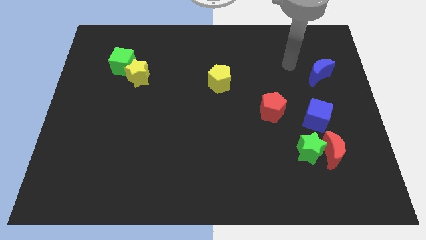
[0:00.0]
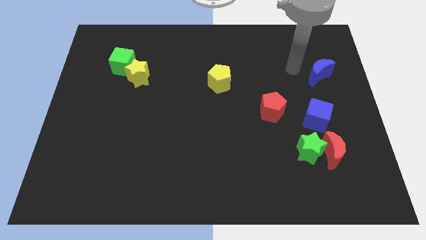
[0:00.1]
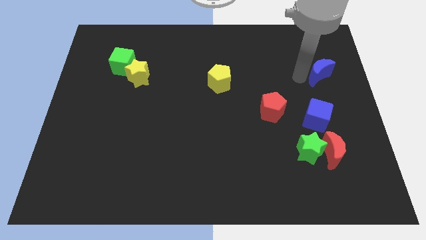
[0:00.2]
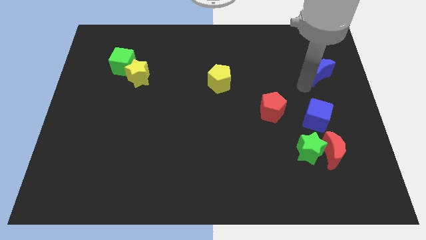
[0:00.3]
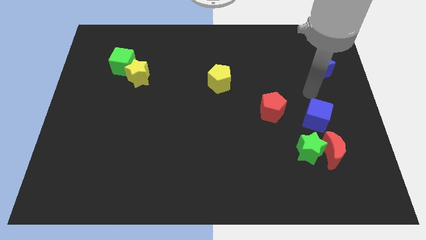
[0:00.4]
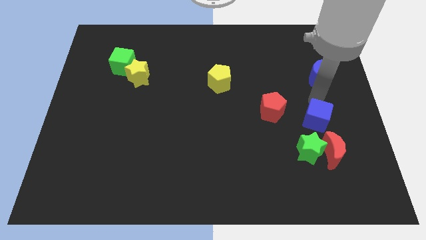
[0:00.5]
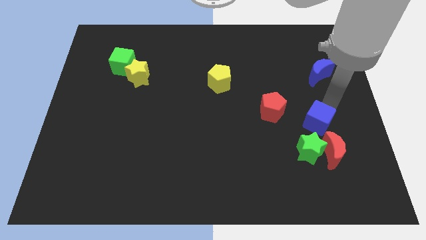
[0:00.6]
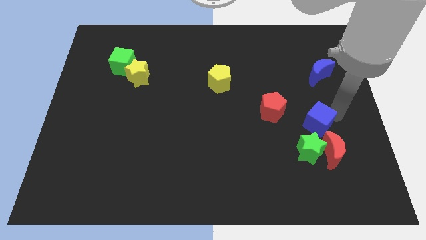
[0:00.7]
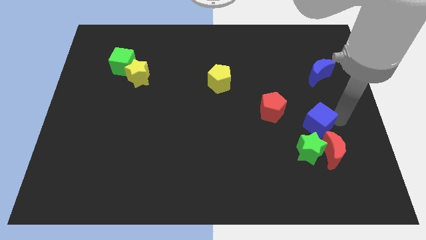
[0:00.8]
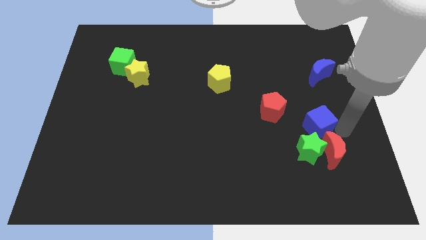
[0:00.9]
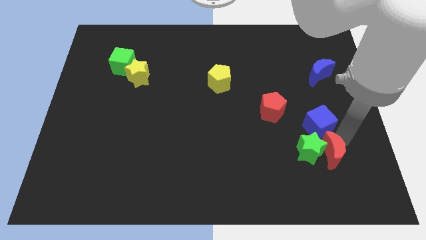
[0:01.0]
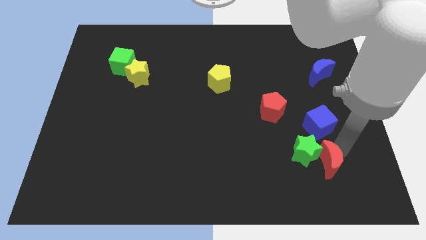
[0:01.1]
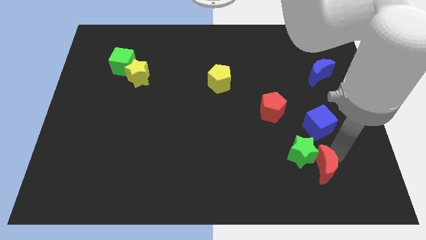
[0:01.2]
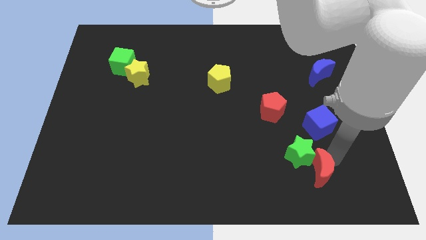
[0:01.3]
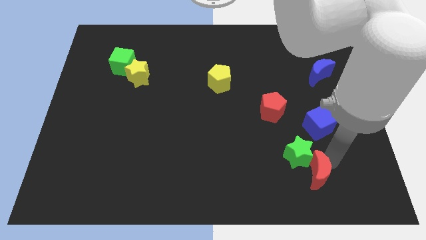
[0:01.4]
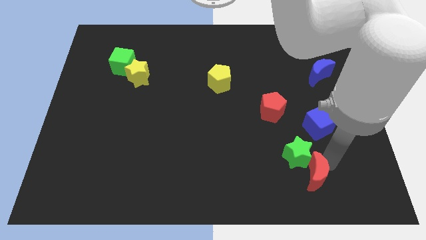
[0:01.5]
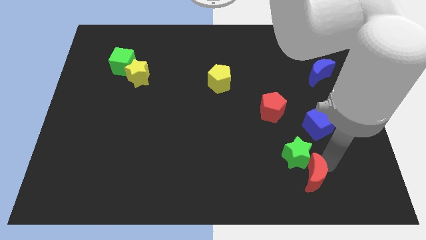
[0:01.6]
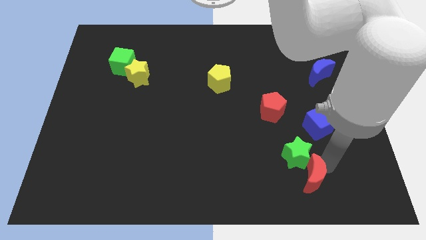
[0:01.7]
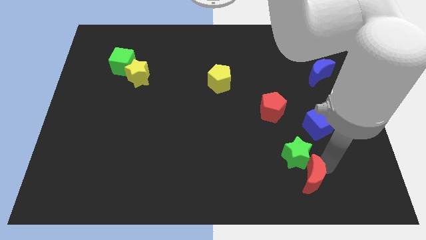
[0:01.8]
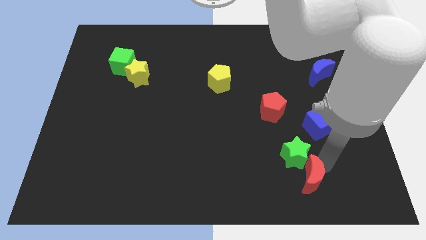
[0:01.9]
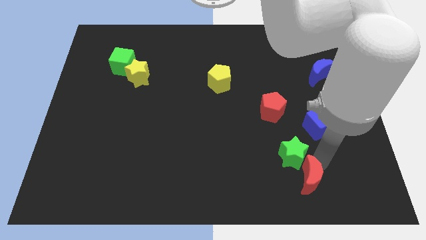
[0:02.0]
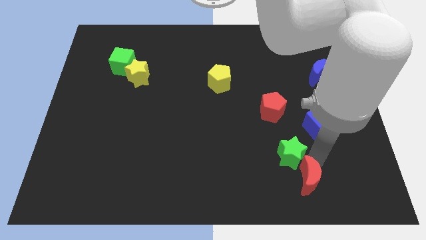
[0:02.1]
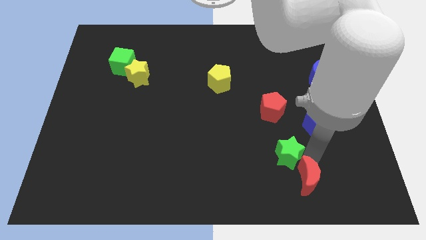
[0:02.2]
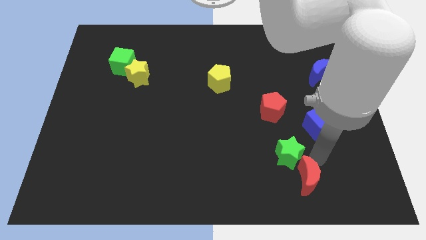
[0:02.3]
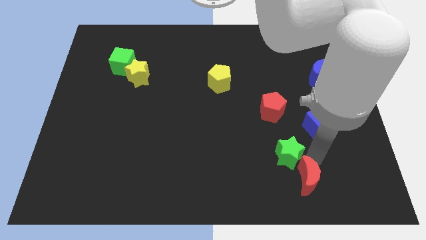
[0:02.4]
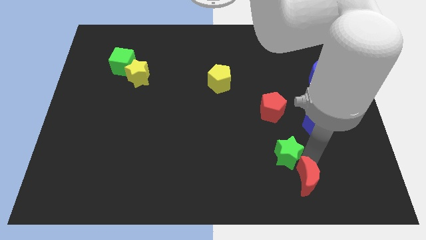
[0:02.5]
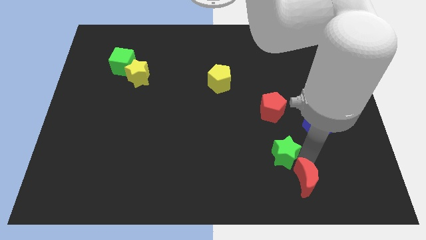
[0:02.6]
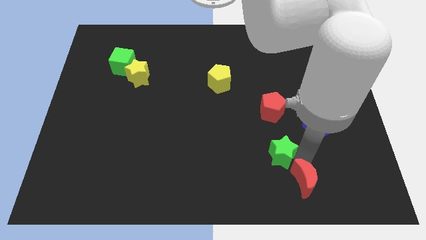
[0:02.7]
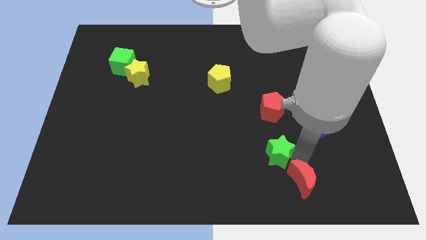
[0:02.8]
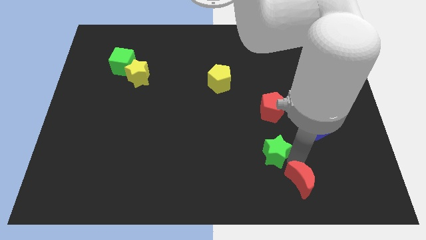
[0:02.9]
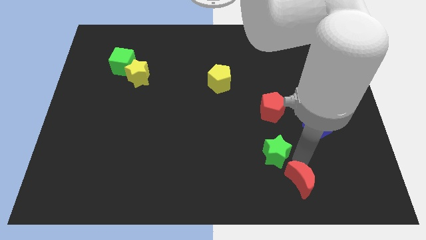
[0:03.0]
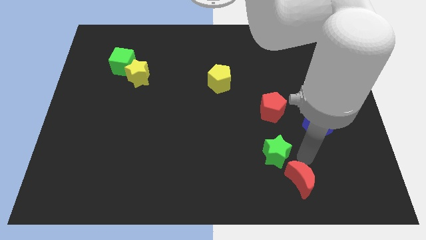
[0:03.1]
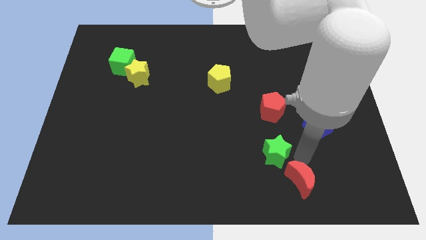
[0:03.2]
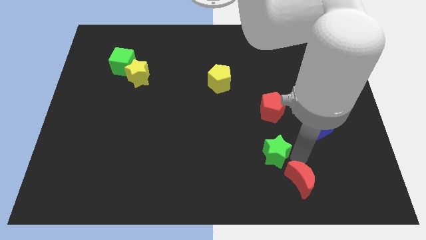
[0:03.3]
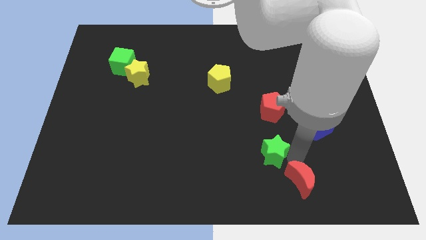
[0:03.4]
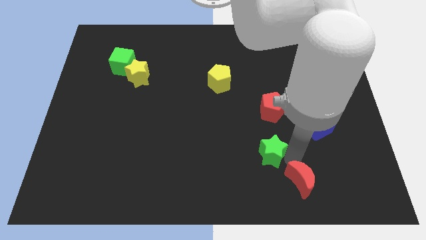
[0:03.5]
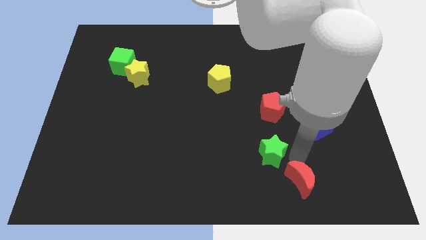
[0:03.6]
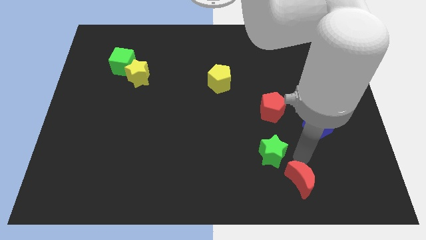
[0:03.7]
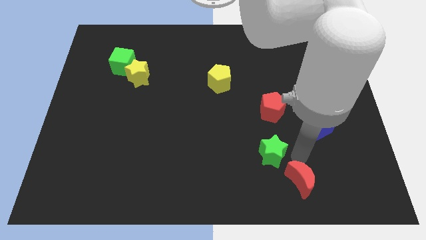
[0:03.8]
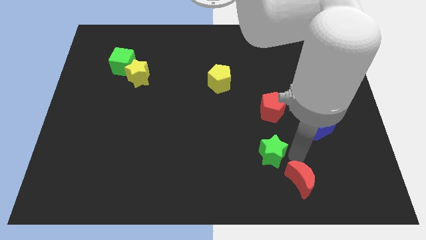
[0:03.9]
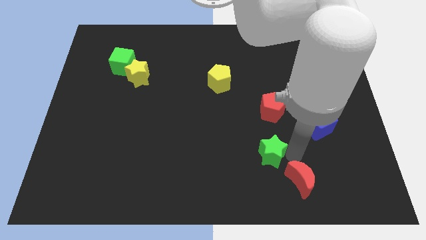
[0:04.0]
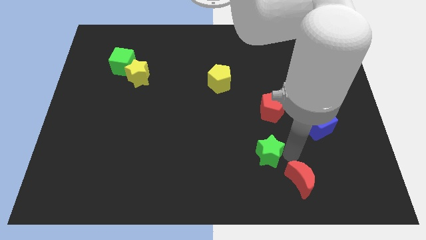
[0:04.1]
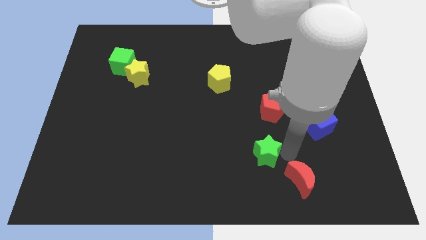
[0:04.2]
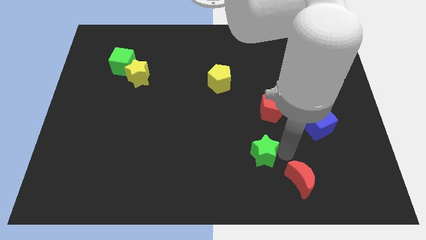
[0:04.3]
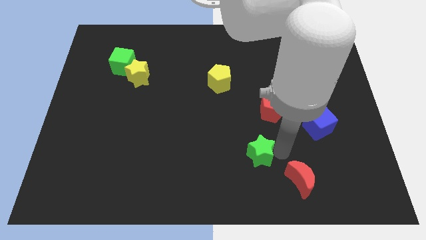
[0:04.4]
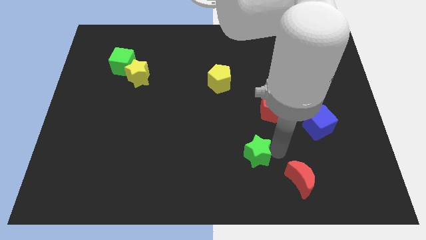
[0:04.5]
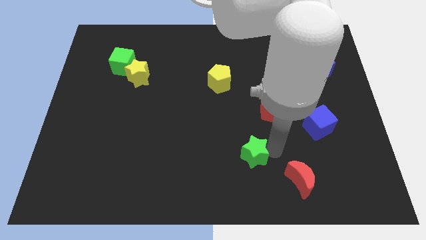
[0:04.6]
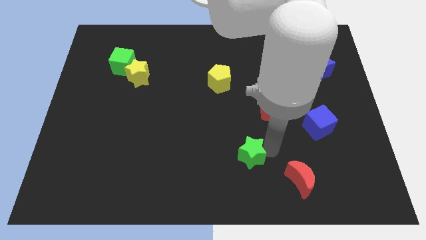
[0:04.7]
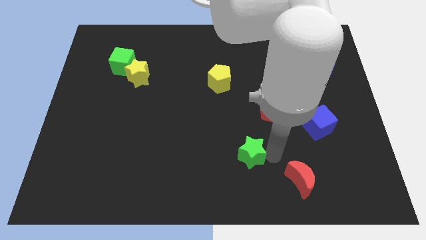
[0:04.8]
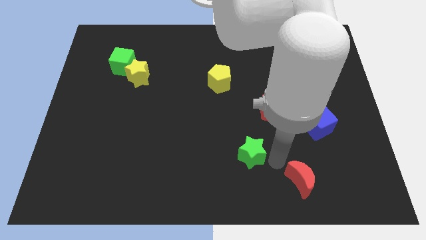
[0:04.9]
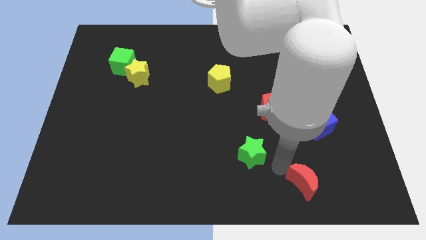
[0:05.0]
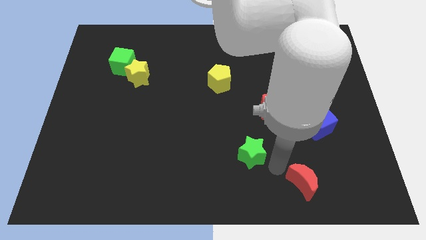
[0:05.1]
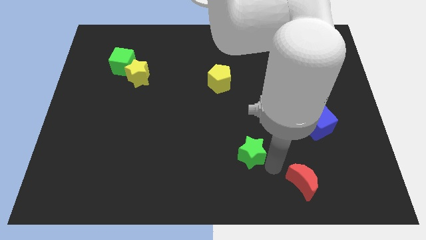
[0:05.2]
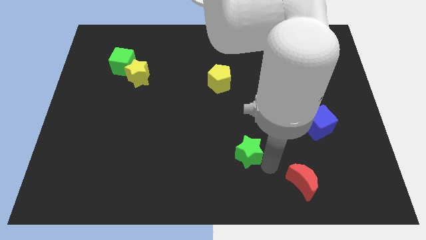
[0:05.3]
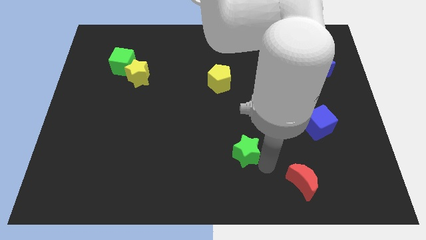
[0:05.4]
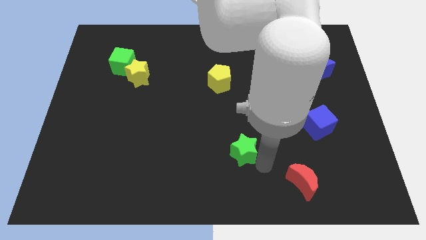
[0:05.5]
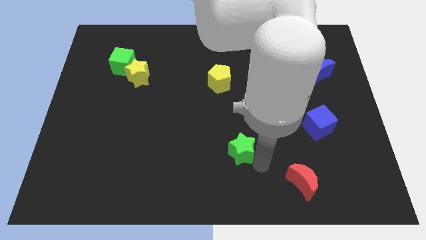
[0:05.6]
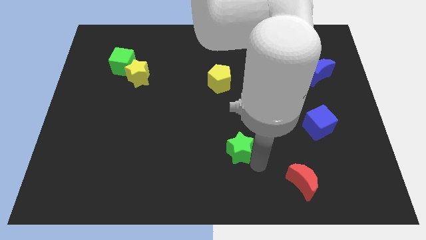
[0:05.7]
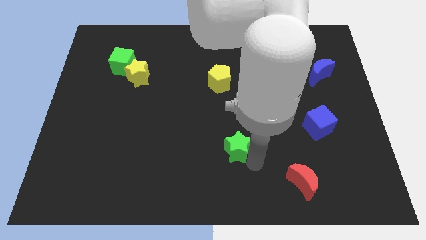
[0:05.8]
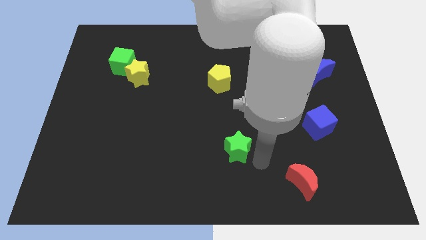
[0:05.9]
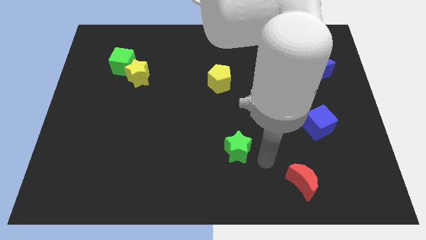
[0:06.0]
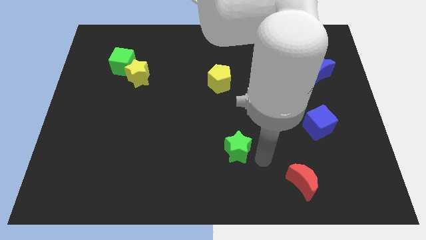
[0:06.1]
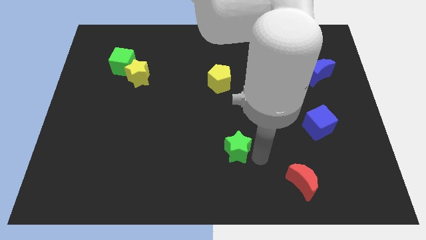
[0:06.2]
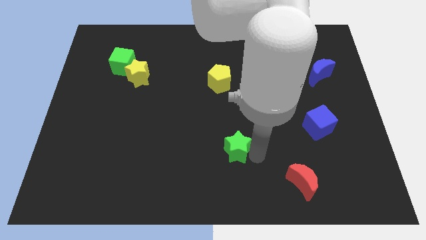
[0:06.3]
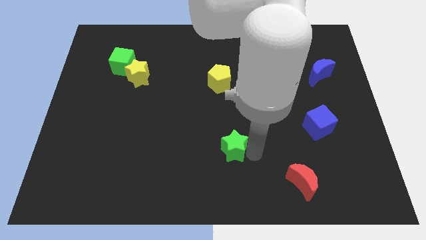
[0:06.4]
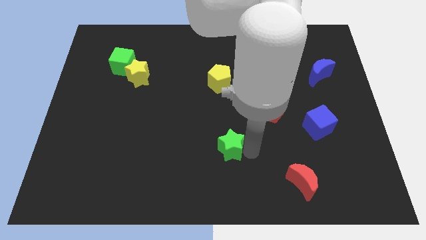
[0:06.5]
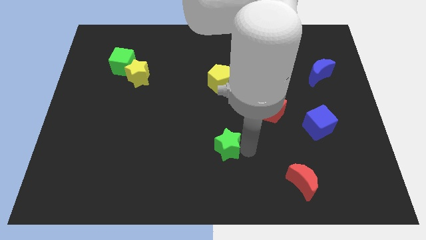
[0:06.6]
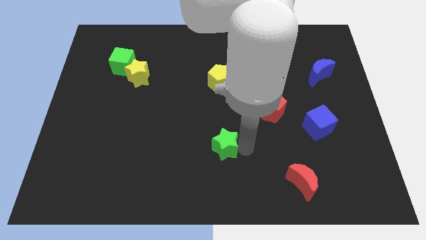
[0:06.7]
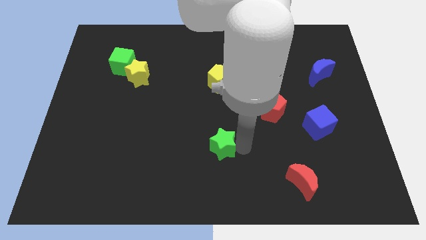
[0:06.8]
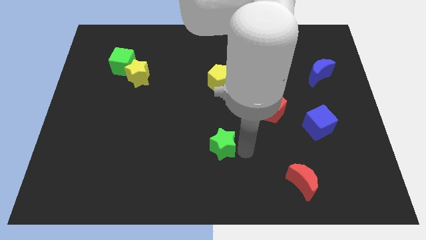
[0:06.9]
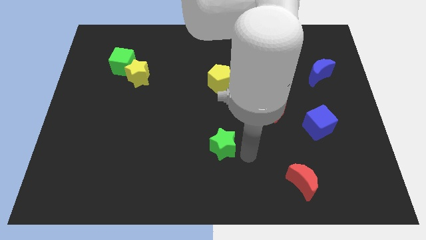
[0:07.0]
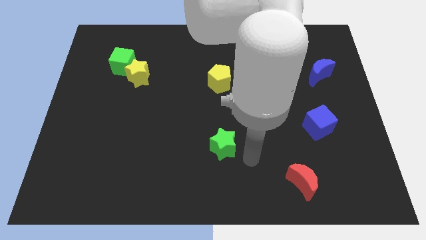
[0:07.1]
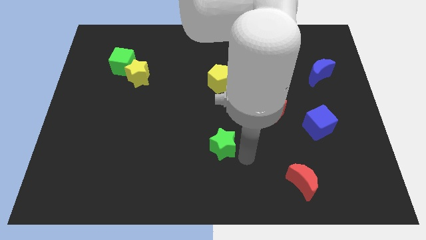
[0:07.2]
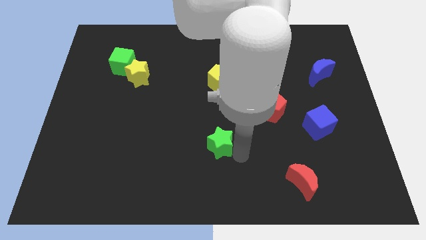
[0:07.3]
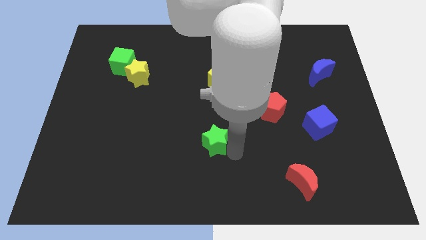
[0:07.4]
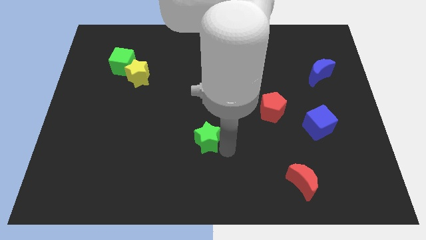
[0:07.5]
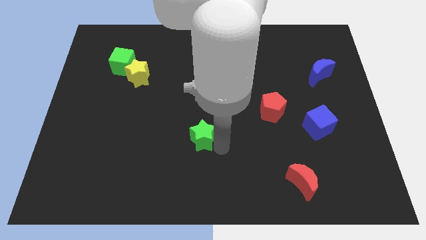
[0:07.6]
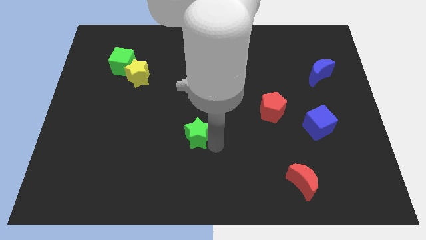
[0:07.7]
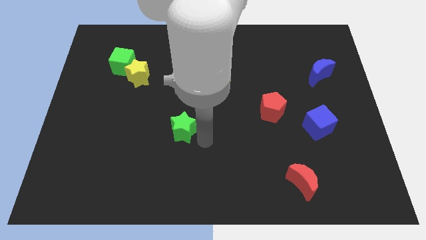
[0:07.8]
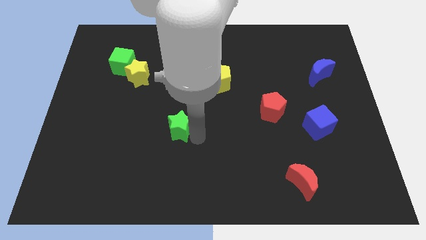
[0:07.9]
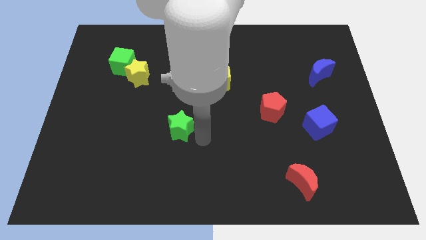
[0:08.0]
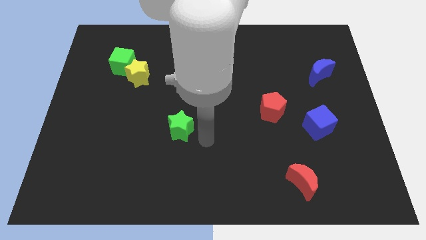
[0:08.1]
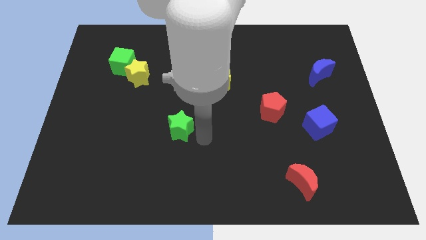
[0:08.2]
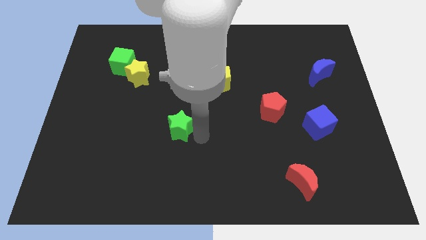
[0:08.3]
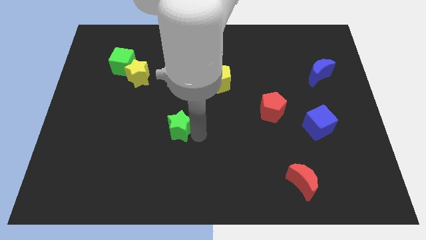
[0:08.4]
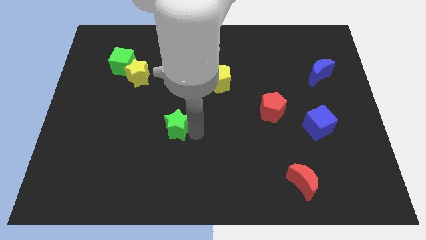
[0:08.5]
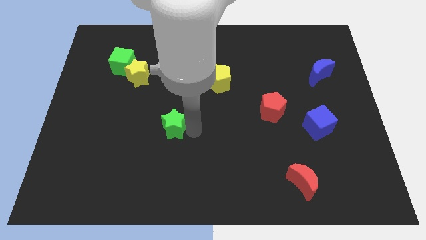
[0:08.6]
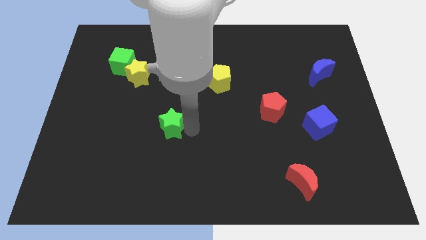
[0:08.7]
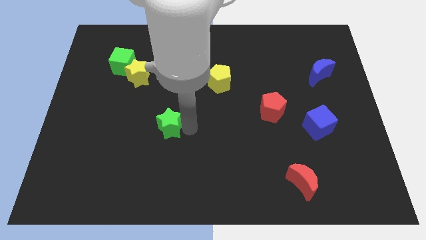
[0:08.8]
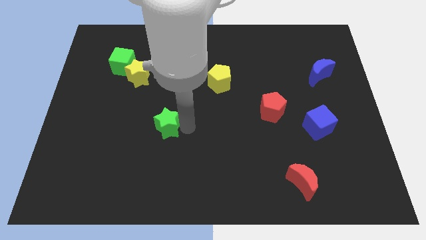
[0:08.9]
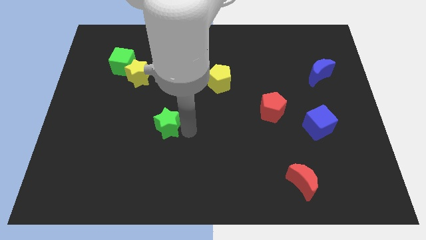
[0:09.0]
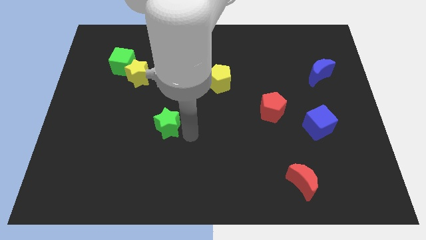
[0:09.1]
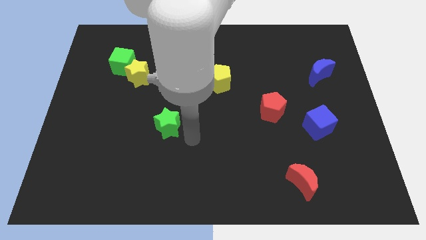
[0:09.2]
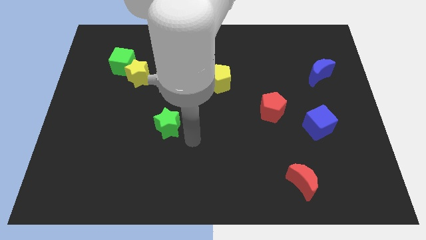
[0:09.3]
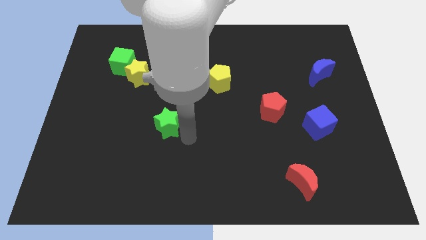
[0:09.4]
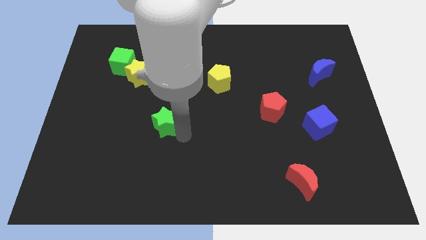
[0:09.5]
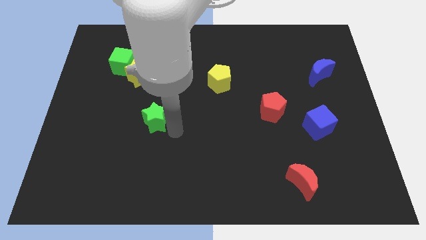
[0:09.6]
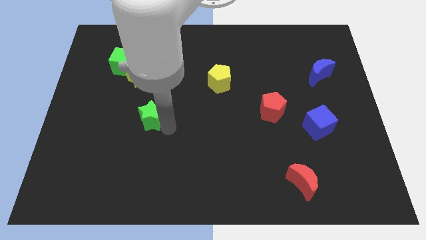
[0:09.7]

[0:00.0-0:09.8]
put the green star to the bottom side of the yellow star
